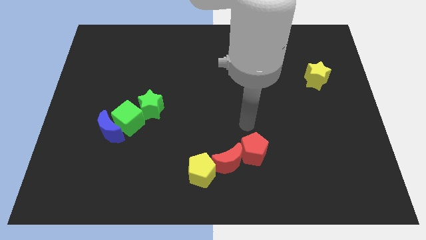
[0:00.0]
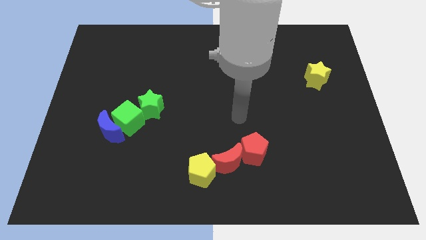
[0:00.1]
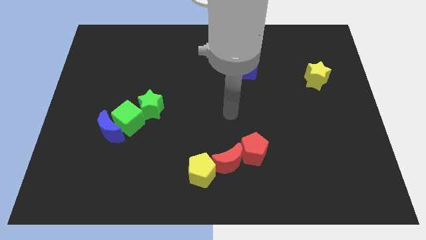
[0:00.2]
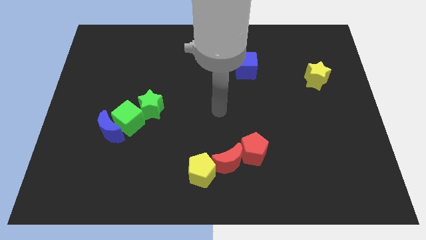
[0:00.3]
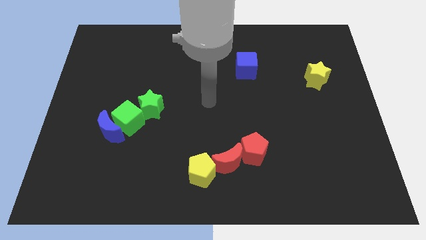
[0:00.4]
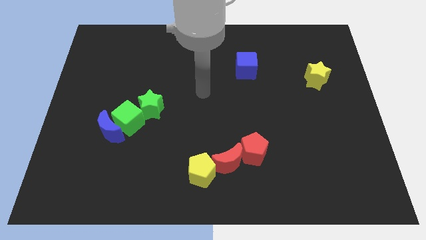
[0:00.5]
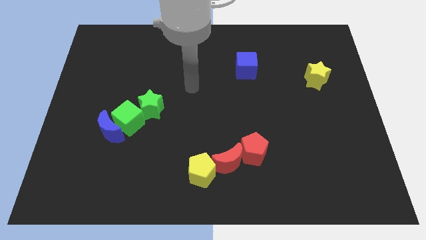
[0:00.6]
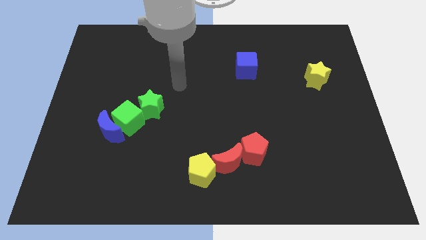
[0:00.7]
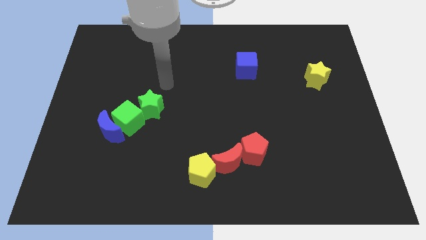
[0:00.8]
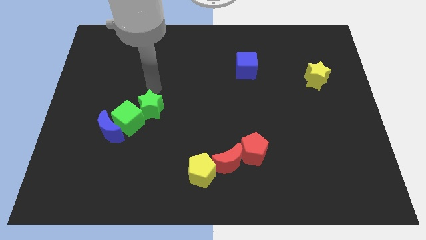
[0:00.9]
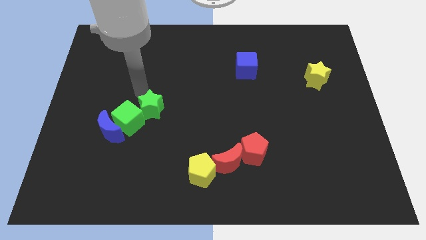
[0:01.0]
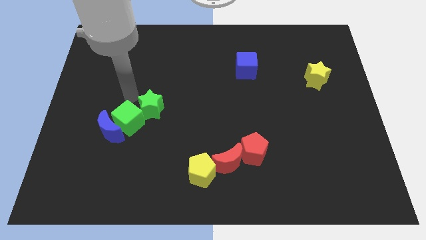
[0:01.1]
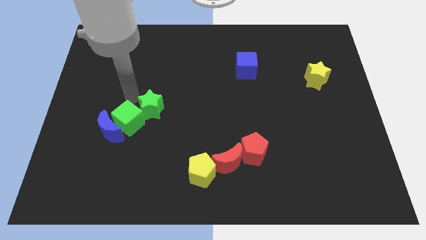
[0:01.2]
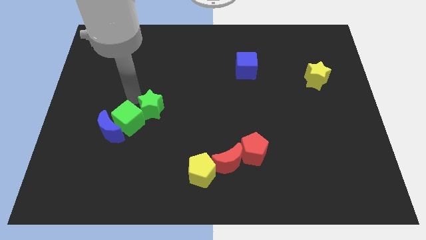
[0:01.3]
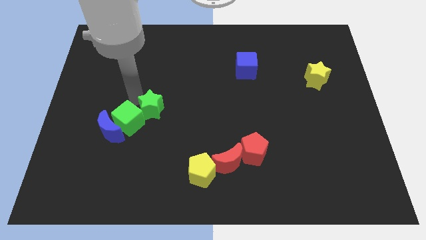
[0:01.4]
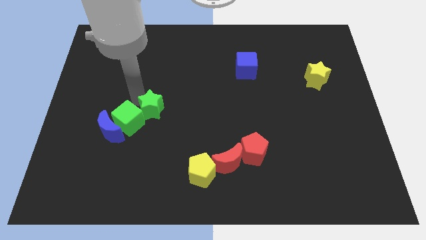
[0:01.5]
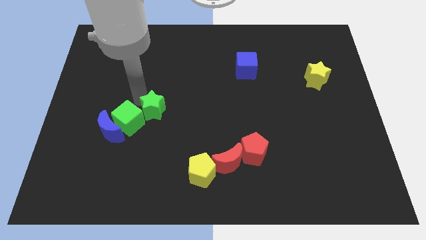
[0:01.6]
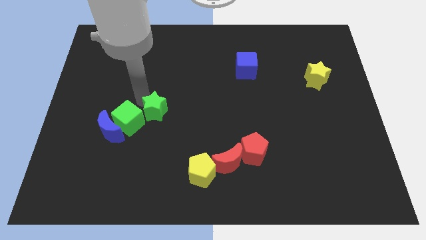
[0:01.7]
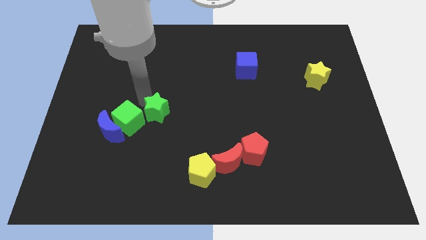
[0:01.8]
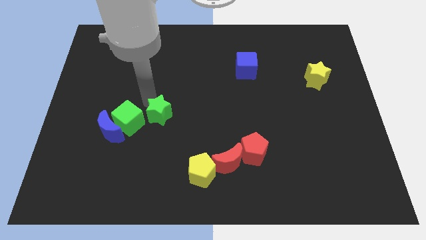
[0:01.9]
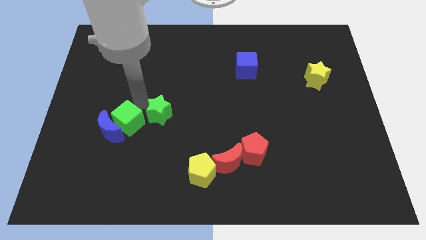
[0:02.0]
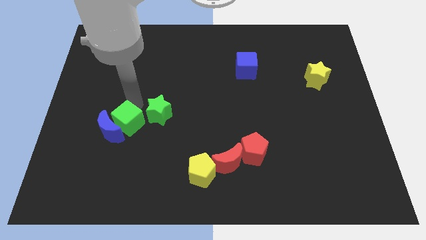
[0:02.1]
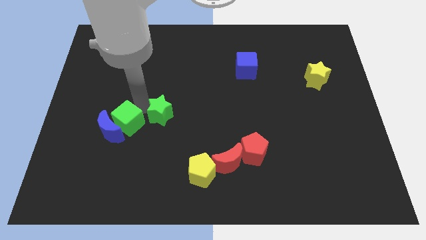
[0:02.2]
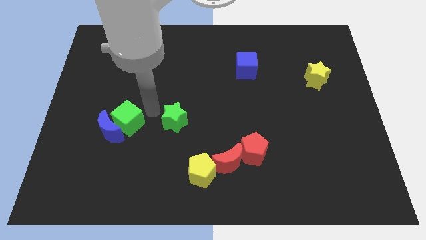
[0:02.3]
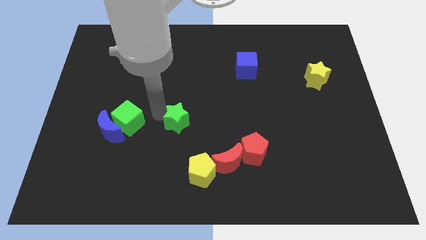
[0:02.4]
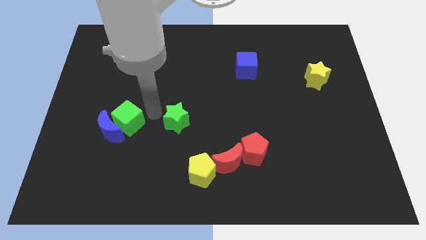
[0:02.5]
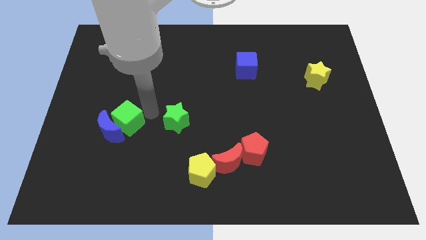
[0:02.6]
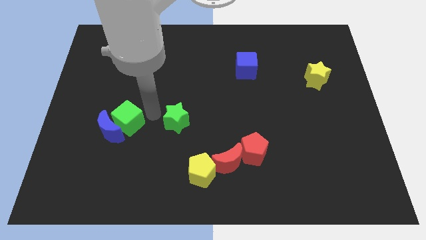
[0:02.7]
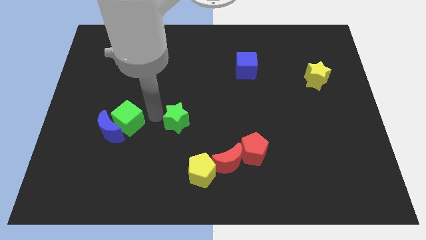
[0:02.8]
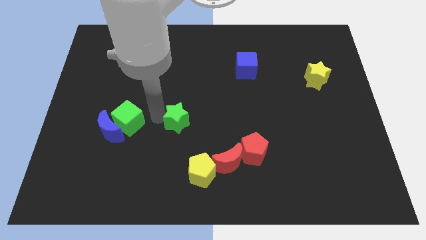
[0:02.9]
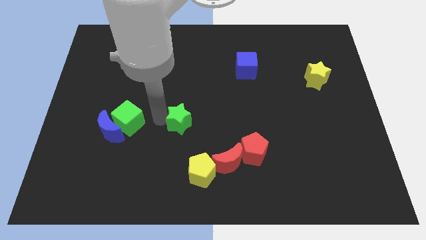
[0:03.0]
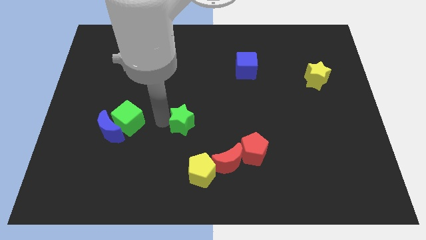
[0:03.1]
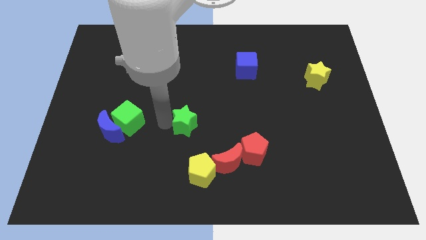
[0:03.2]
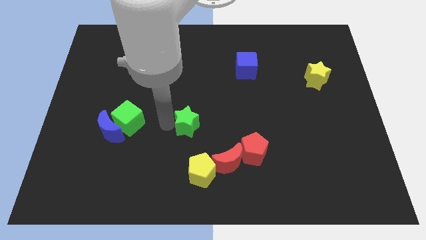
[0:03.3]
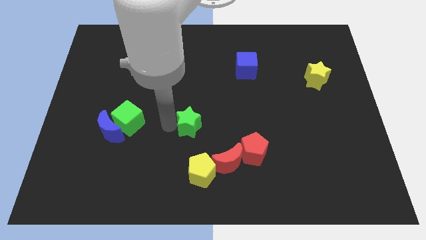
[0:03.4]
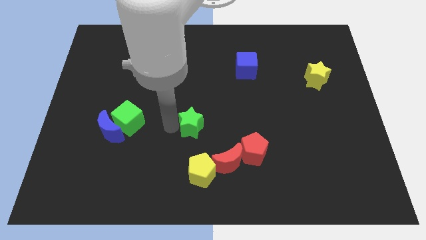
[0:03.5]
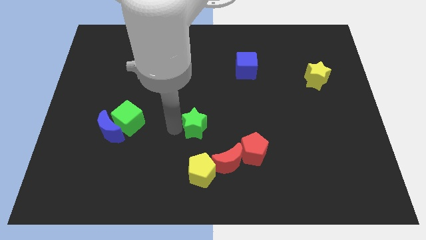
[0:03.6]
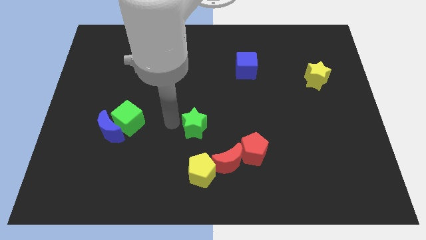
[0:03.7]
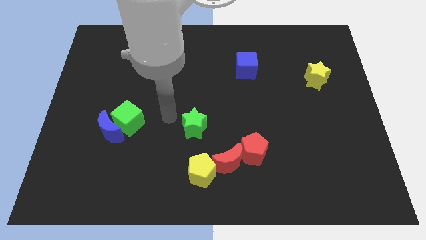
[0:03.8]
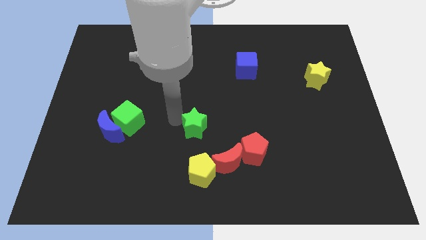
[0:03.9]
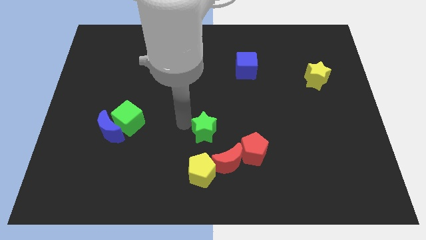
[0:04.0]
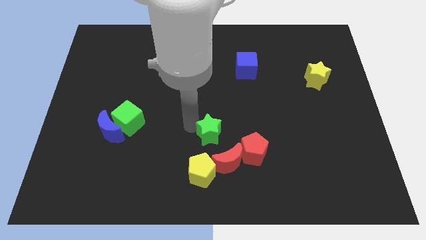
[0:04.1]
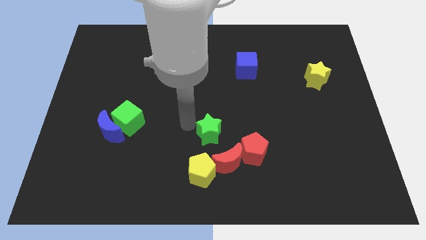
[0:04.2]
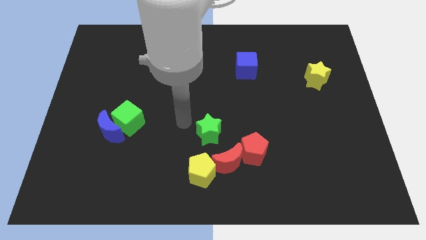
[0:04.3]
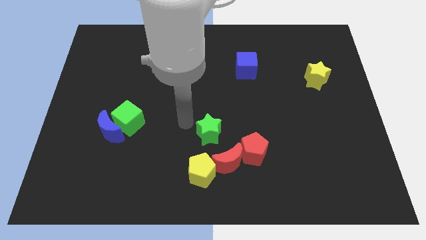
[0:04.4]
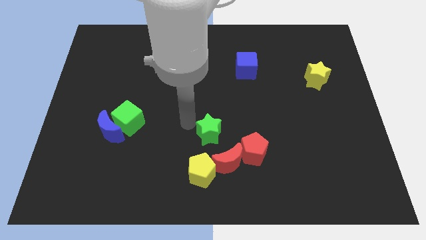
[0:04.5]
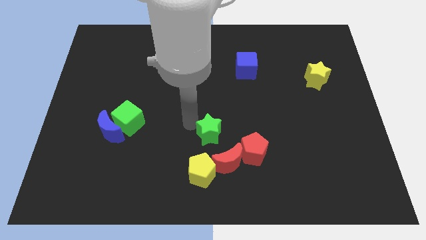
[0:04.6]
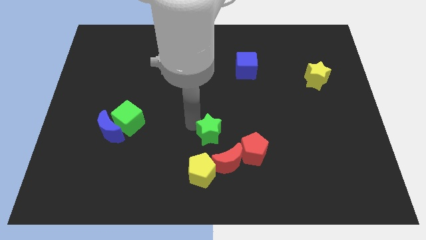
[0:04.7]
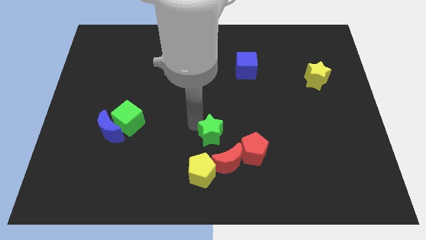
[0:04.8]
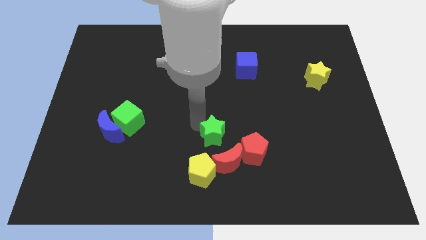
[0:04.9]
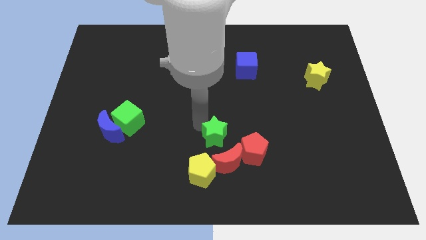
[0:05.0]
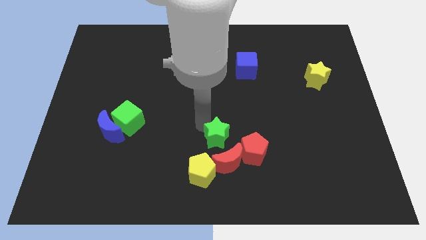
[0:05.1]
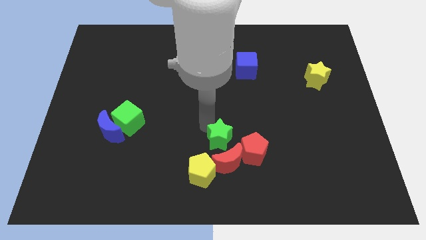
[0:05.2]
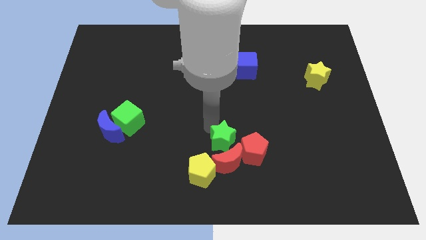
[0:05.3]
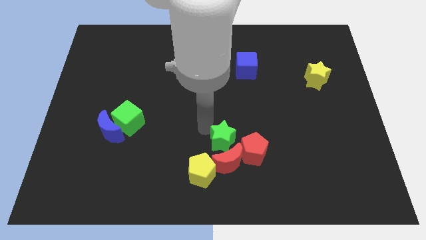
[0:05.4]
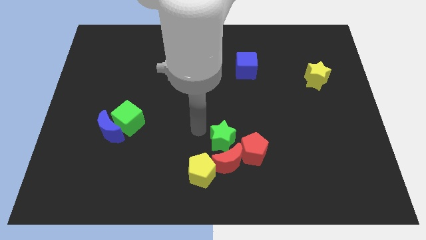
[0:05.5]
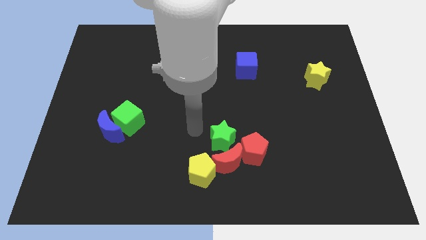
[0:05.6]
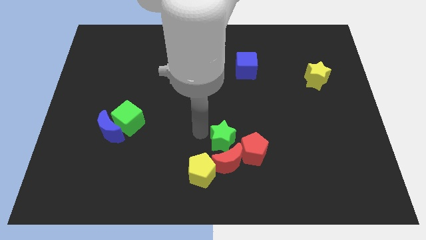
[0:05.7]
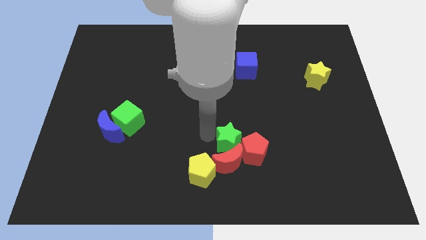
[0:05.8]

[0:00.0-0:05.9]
push the green star towards the red pentagon

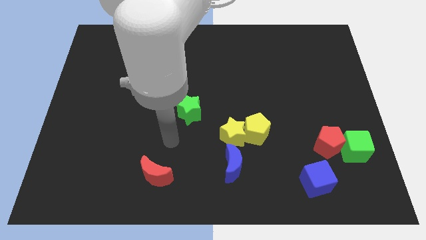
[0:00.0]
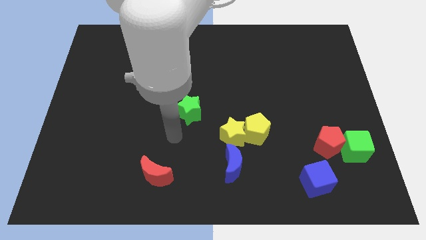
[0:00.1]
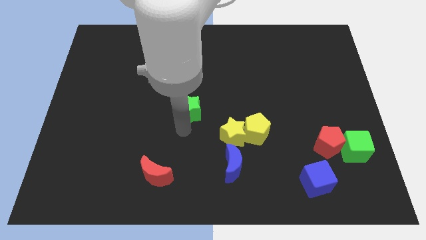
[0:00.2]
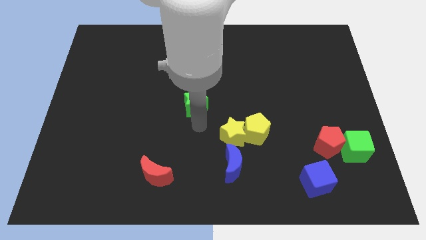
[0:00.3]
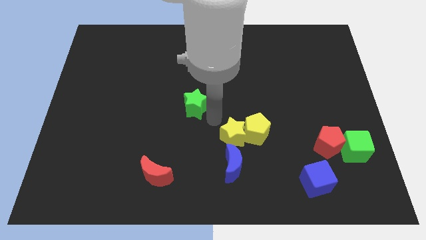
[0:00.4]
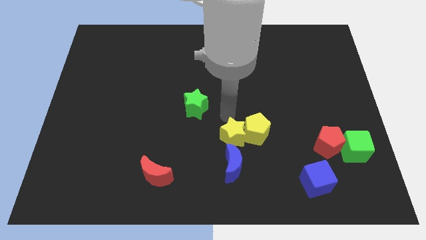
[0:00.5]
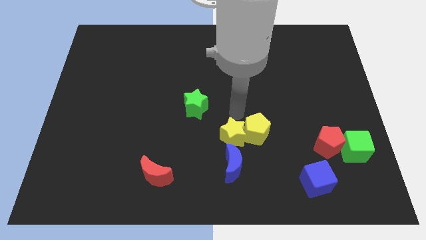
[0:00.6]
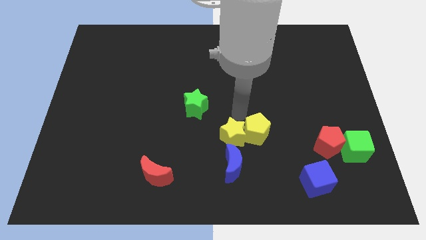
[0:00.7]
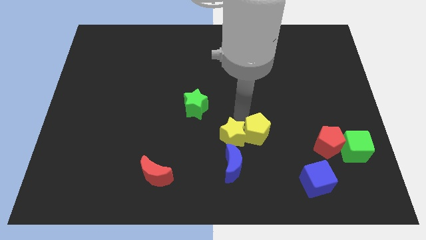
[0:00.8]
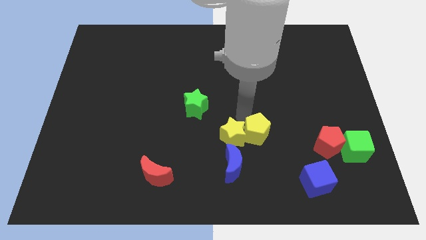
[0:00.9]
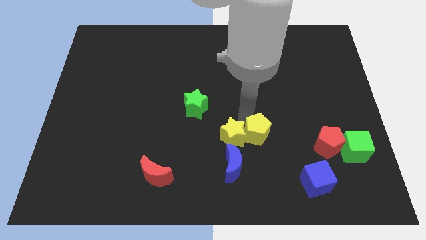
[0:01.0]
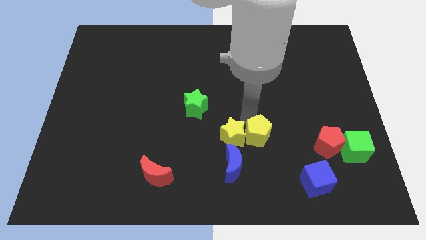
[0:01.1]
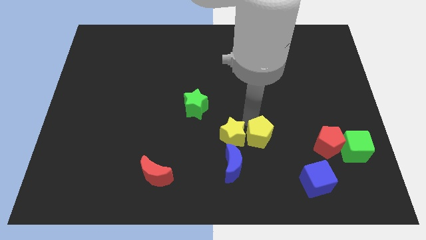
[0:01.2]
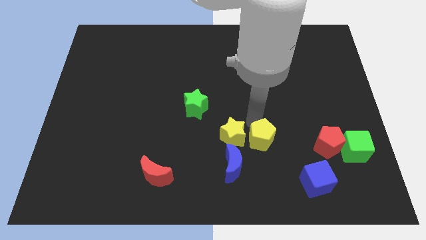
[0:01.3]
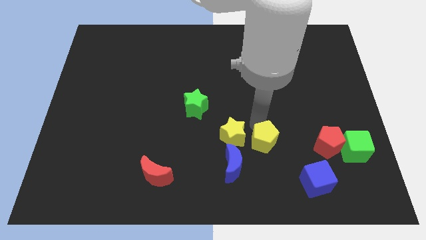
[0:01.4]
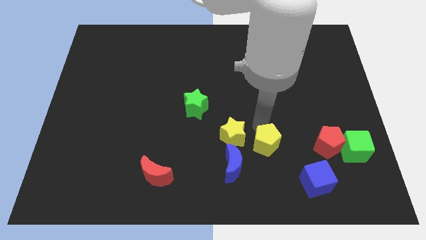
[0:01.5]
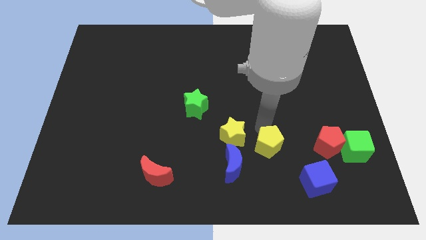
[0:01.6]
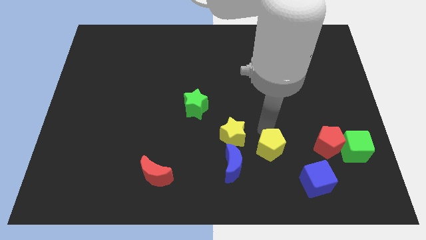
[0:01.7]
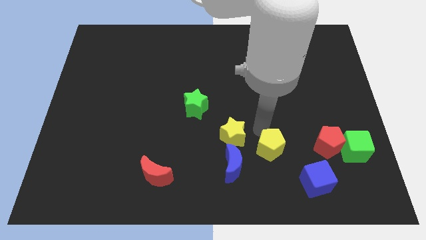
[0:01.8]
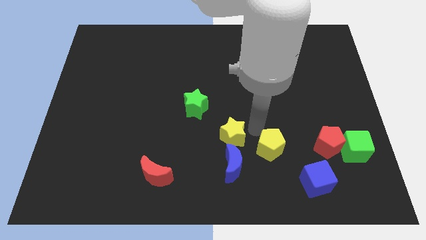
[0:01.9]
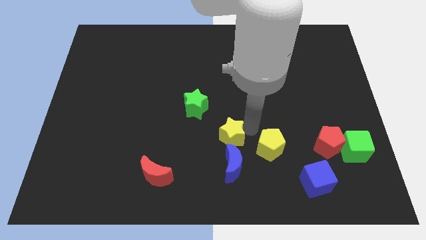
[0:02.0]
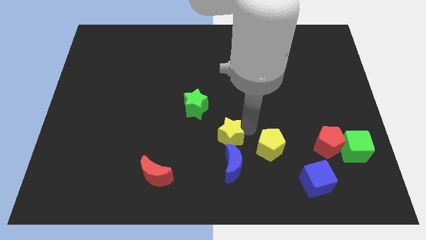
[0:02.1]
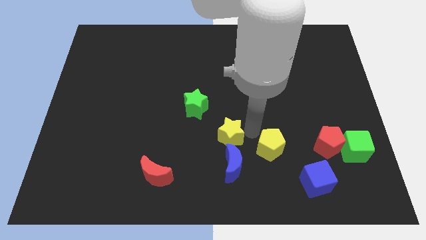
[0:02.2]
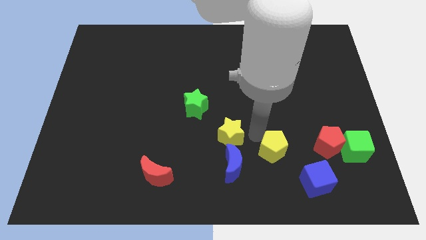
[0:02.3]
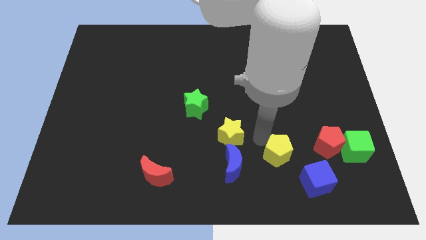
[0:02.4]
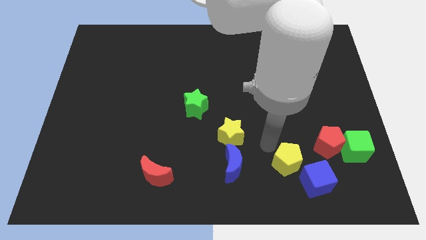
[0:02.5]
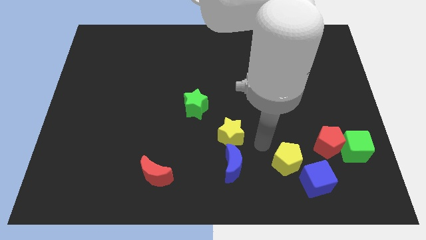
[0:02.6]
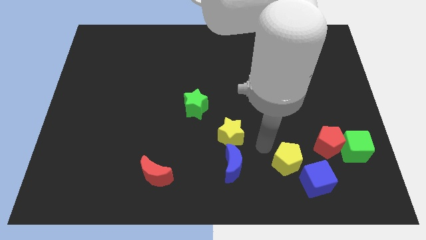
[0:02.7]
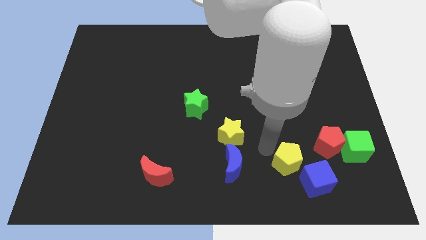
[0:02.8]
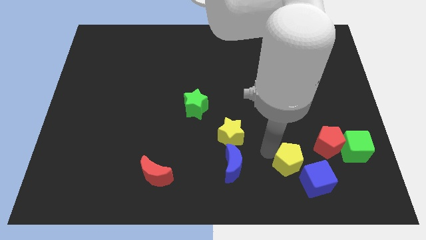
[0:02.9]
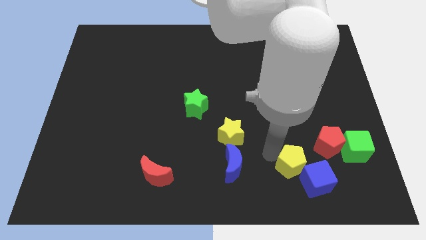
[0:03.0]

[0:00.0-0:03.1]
move the yellow pentagon close to the blue cube
